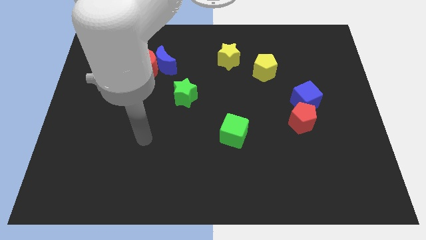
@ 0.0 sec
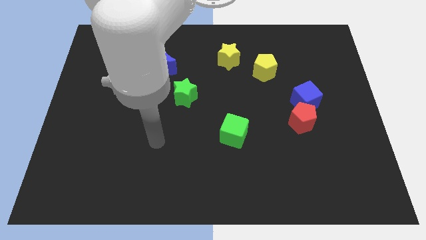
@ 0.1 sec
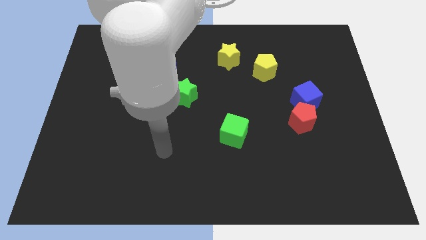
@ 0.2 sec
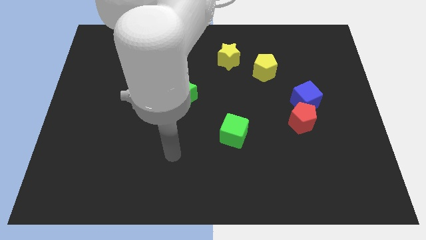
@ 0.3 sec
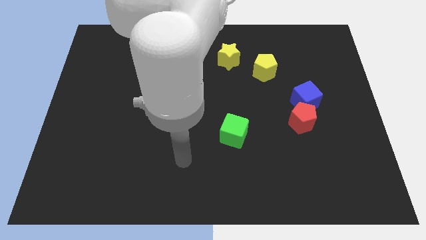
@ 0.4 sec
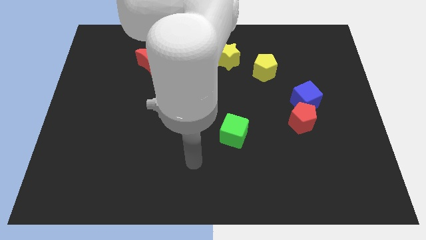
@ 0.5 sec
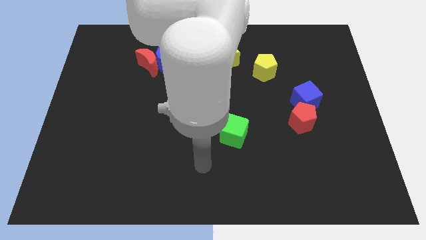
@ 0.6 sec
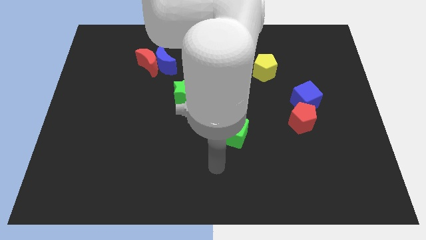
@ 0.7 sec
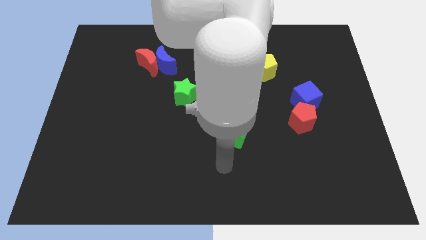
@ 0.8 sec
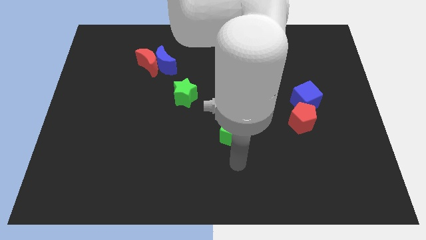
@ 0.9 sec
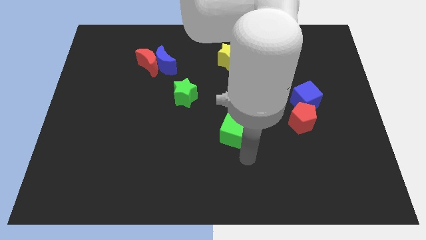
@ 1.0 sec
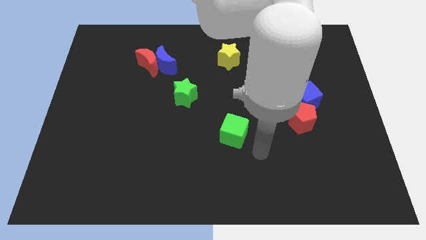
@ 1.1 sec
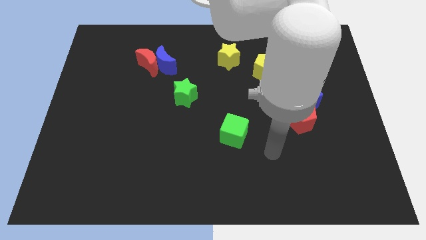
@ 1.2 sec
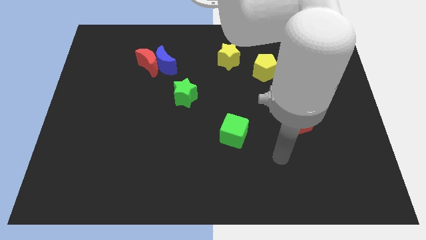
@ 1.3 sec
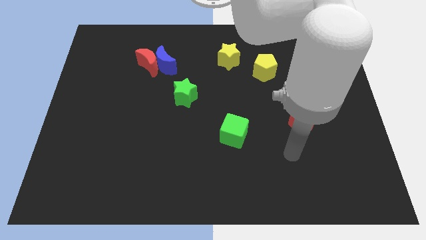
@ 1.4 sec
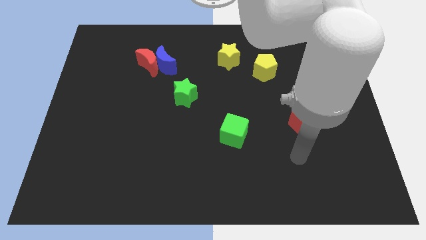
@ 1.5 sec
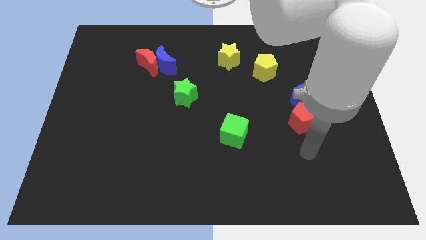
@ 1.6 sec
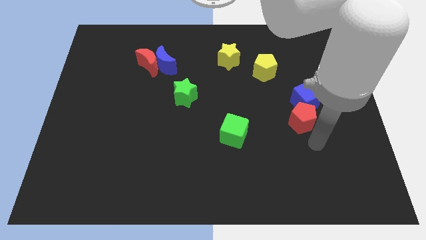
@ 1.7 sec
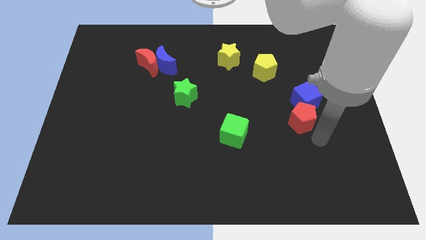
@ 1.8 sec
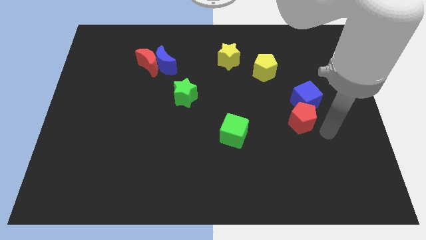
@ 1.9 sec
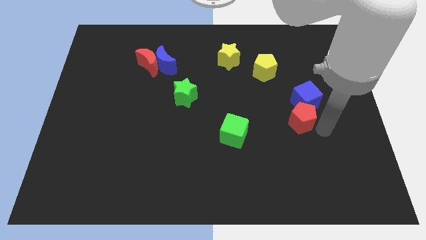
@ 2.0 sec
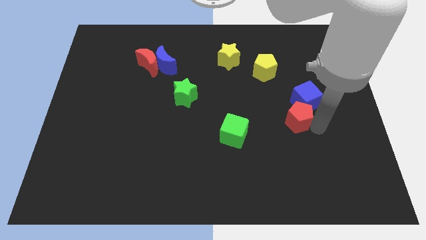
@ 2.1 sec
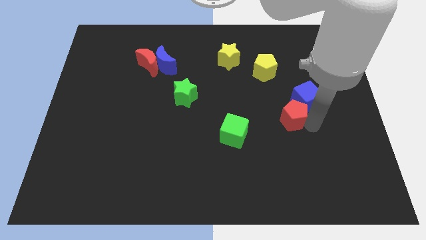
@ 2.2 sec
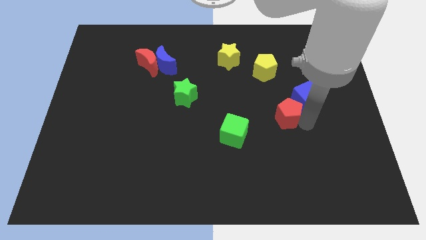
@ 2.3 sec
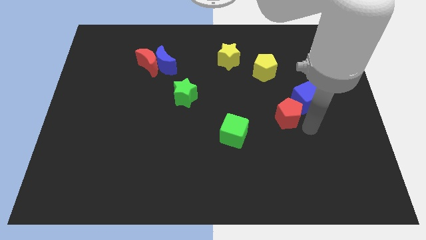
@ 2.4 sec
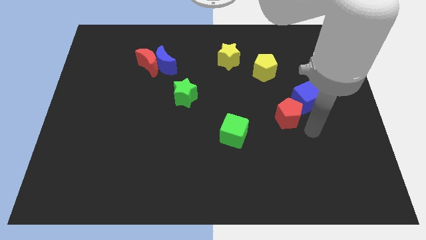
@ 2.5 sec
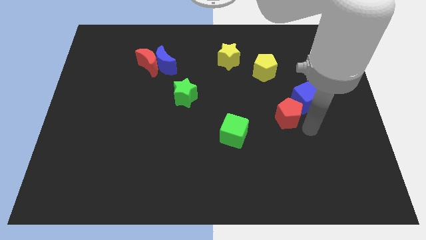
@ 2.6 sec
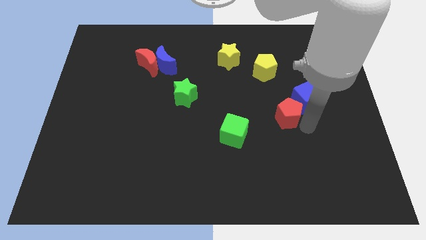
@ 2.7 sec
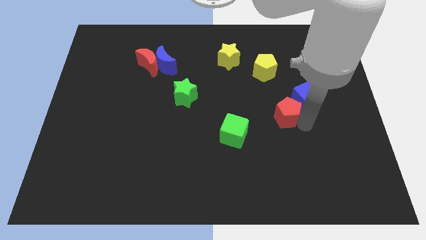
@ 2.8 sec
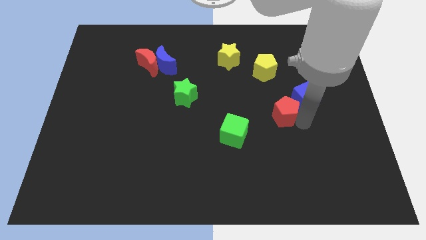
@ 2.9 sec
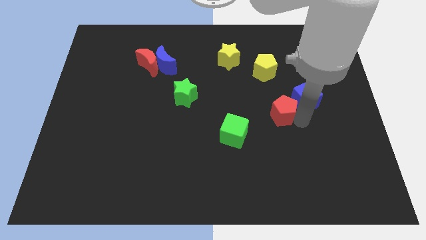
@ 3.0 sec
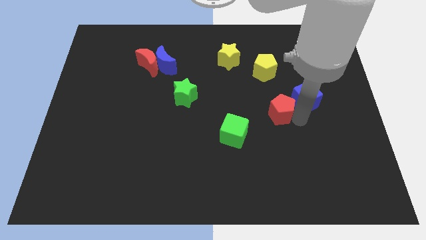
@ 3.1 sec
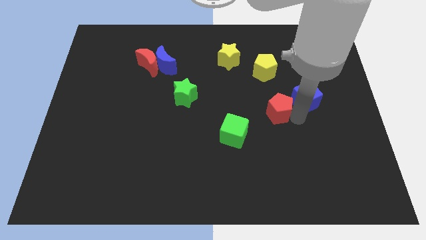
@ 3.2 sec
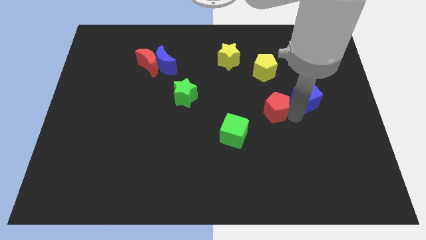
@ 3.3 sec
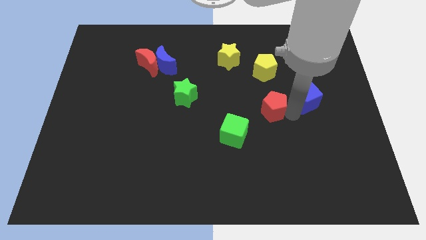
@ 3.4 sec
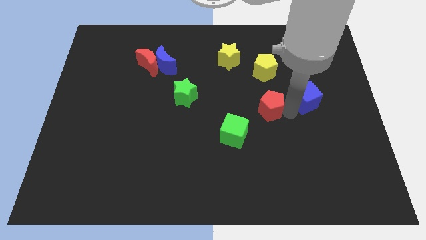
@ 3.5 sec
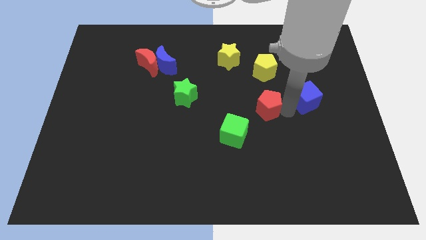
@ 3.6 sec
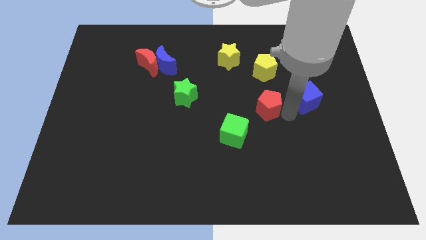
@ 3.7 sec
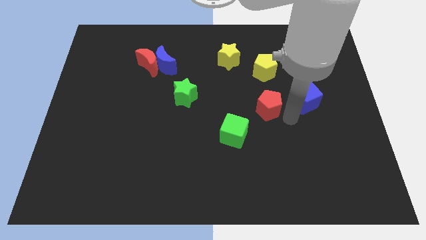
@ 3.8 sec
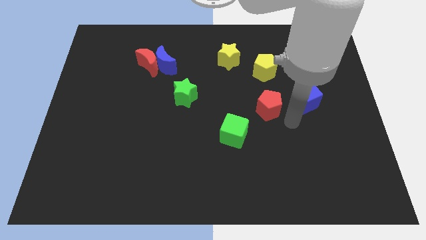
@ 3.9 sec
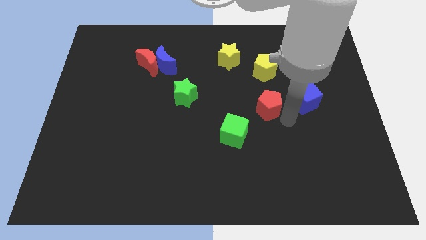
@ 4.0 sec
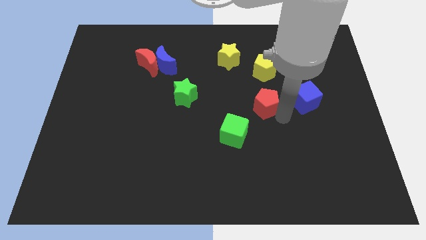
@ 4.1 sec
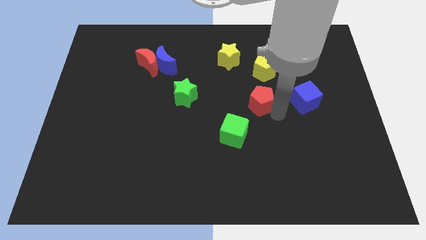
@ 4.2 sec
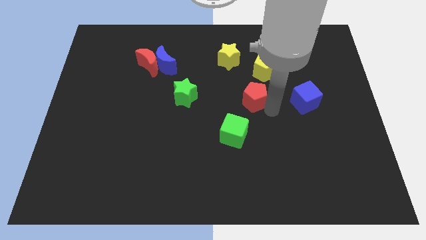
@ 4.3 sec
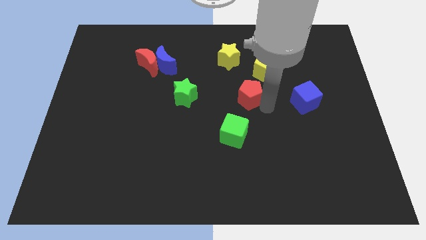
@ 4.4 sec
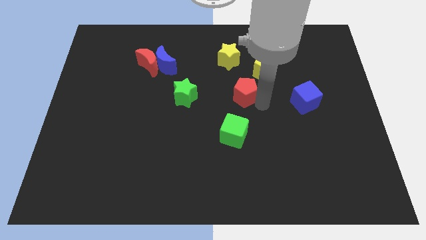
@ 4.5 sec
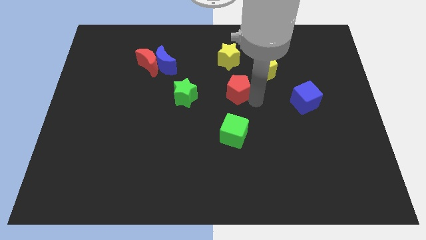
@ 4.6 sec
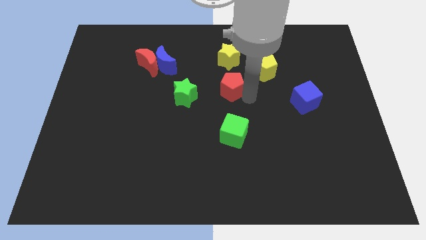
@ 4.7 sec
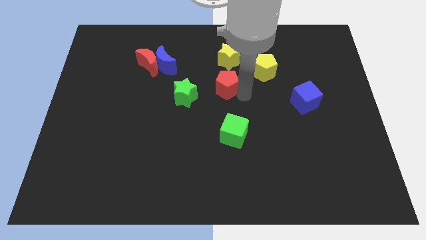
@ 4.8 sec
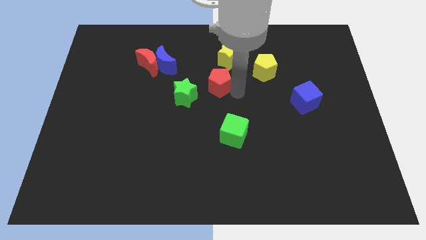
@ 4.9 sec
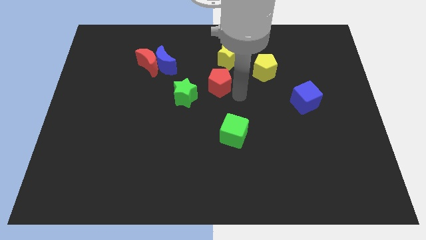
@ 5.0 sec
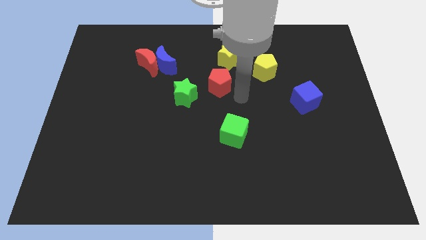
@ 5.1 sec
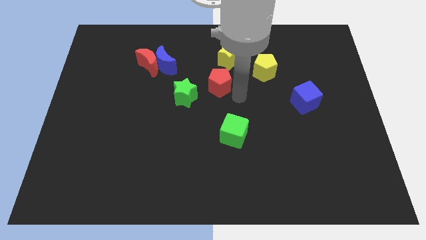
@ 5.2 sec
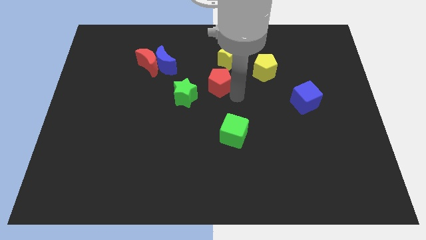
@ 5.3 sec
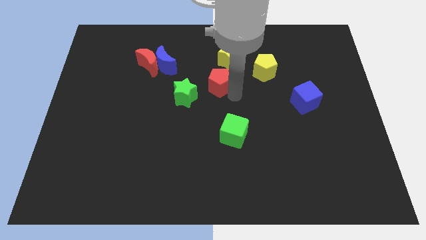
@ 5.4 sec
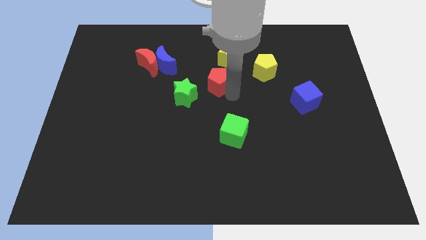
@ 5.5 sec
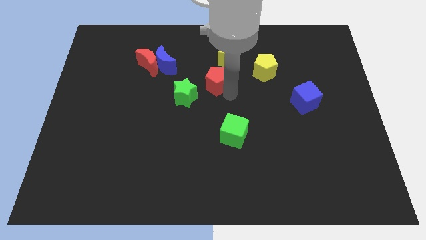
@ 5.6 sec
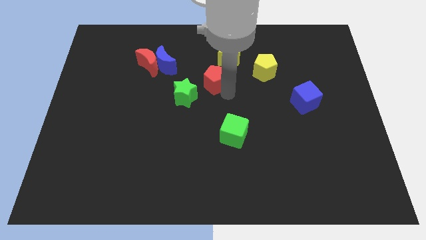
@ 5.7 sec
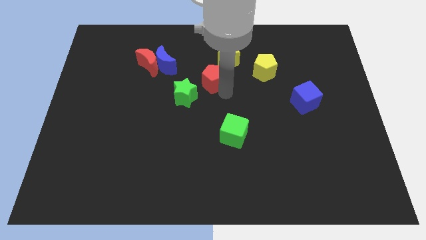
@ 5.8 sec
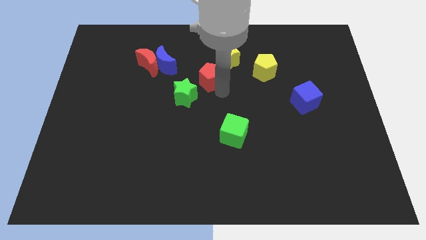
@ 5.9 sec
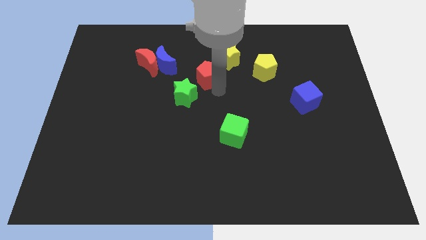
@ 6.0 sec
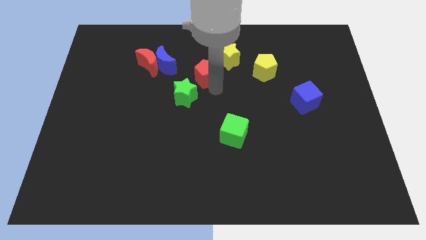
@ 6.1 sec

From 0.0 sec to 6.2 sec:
move the red pentagon above the green star

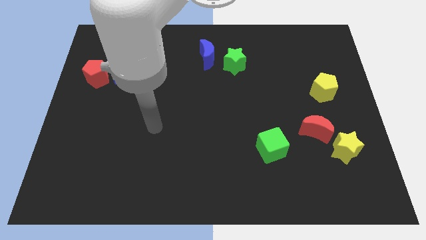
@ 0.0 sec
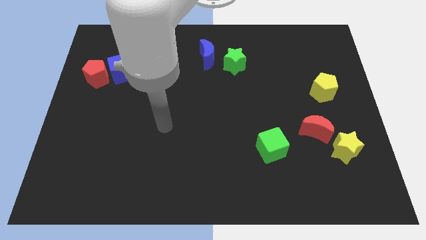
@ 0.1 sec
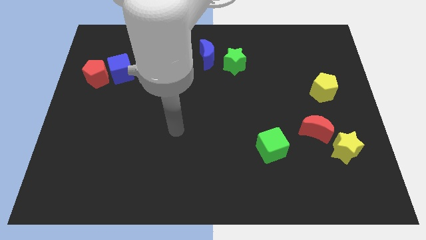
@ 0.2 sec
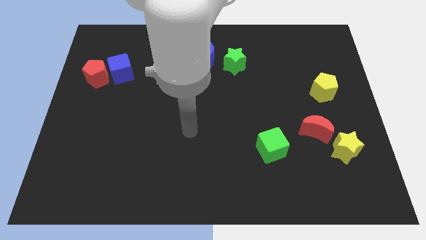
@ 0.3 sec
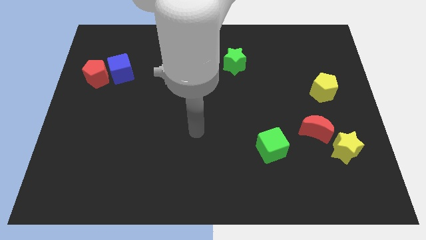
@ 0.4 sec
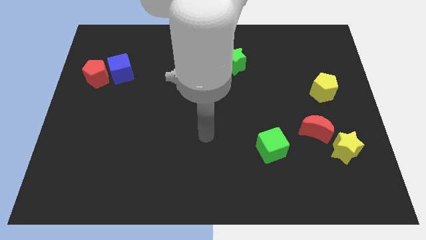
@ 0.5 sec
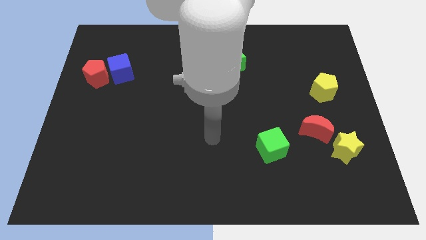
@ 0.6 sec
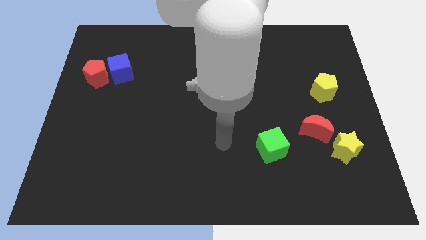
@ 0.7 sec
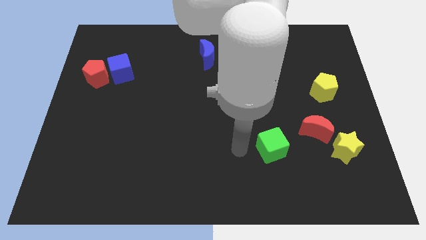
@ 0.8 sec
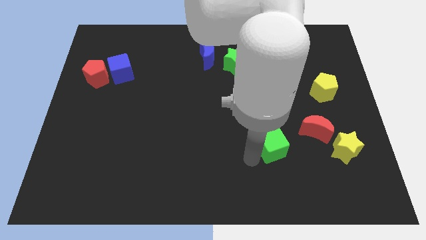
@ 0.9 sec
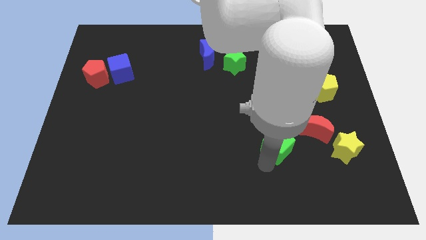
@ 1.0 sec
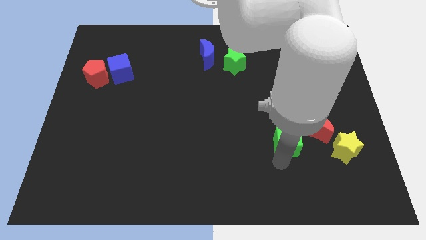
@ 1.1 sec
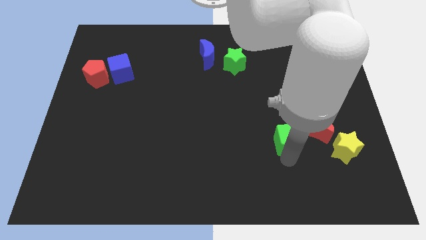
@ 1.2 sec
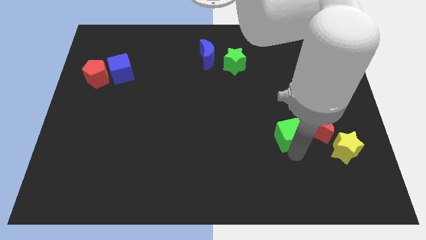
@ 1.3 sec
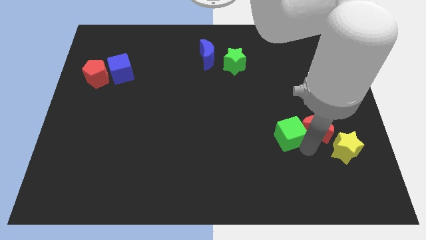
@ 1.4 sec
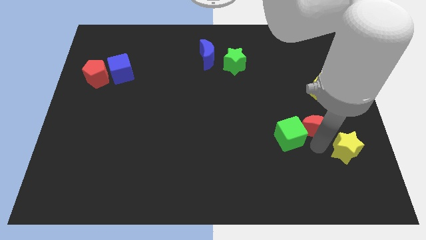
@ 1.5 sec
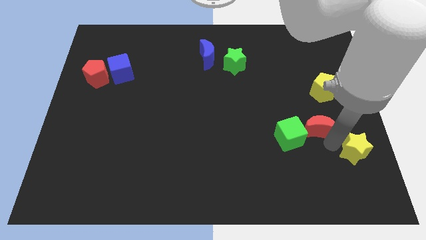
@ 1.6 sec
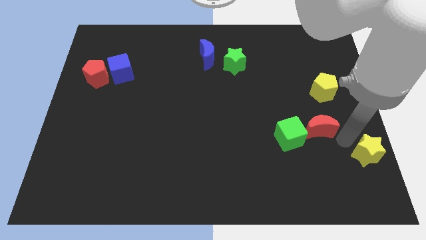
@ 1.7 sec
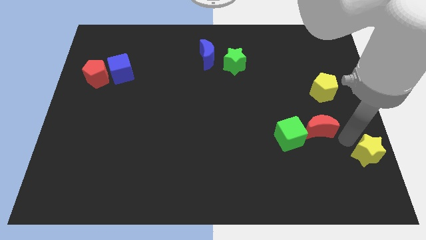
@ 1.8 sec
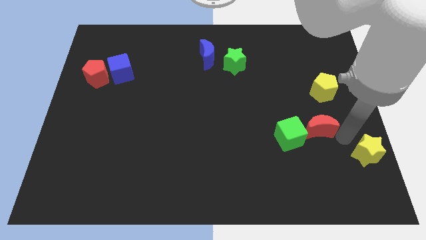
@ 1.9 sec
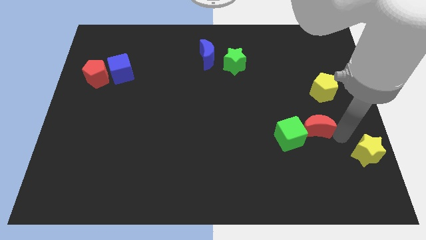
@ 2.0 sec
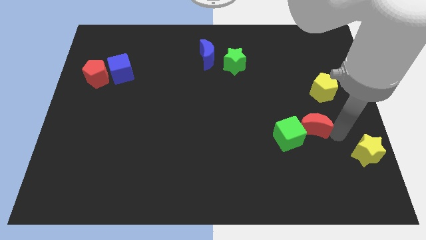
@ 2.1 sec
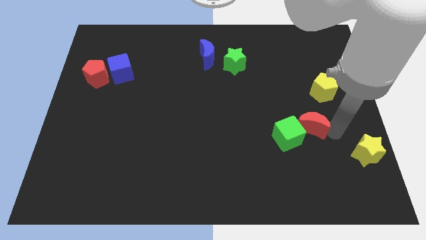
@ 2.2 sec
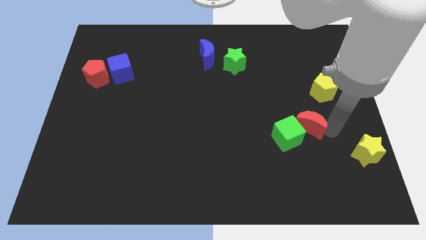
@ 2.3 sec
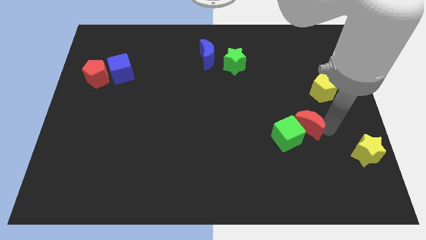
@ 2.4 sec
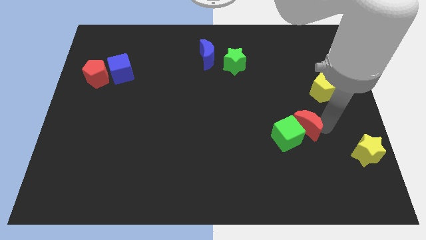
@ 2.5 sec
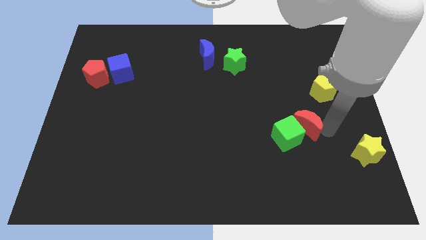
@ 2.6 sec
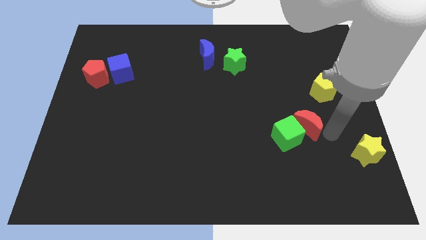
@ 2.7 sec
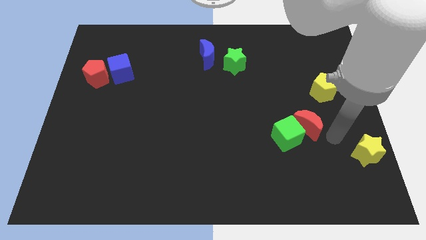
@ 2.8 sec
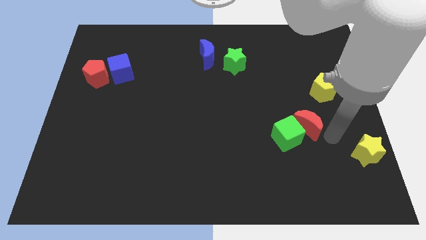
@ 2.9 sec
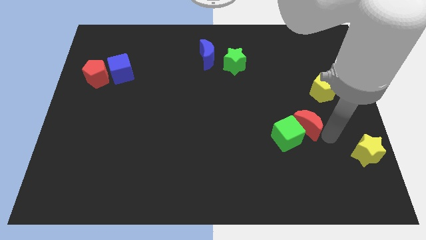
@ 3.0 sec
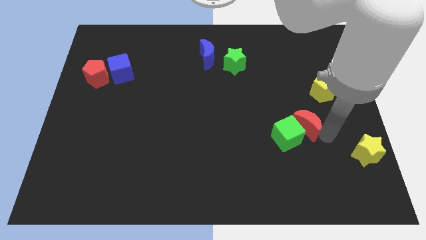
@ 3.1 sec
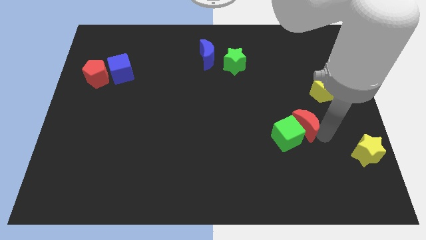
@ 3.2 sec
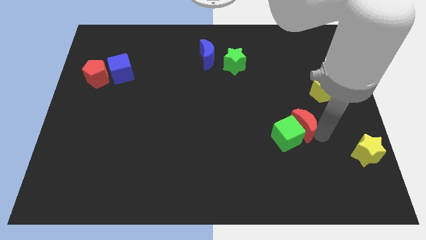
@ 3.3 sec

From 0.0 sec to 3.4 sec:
push the red moon above the green cube
